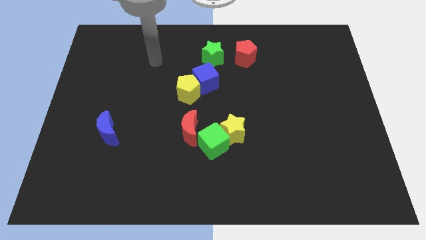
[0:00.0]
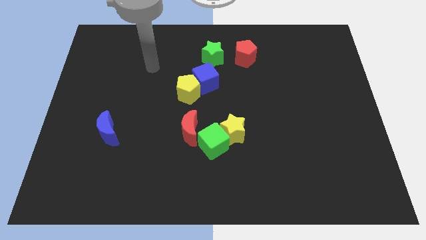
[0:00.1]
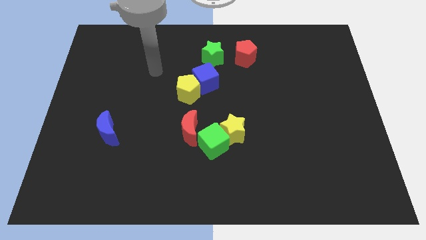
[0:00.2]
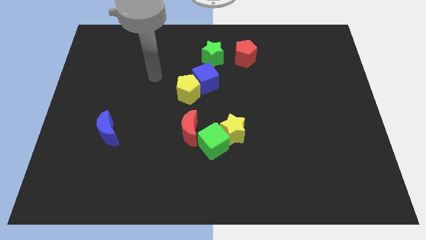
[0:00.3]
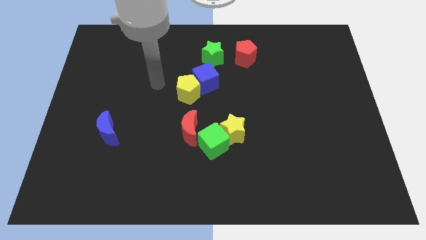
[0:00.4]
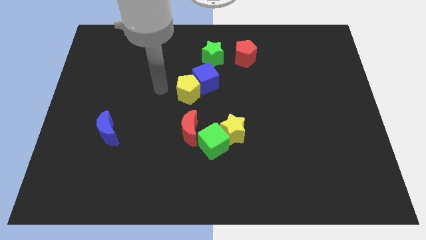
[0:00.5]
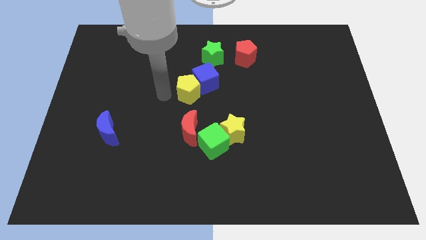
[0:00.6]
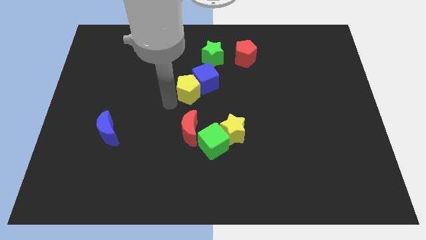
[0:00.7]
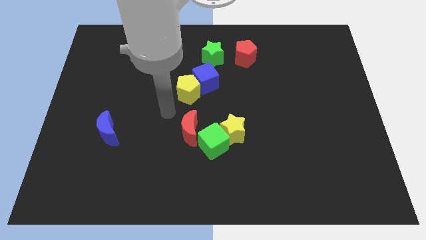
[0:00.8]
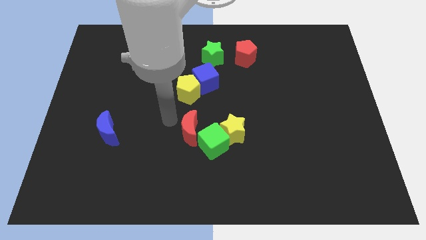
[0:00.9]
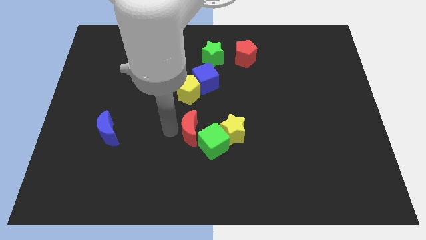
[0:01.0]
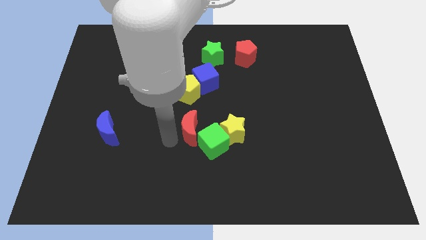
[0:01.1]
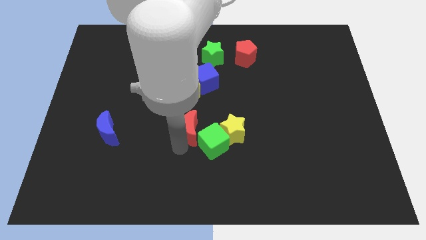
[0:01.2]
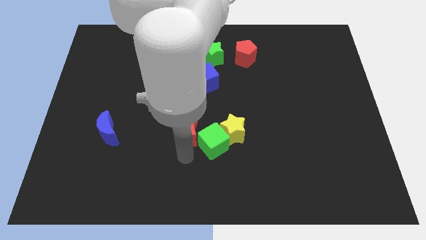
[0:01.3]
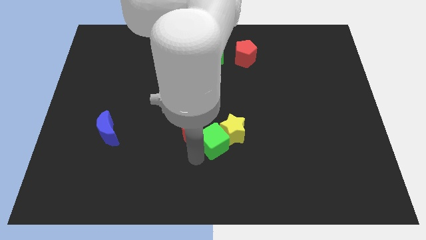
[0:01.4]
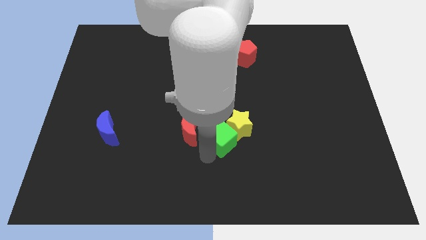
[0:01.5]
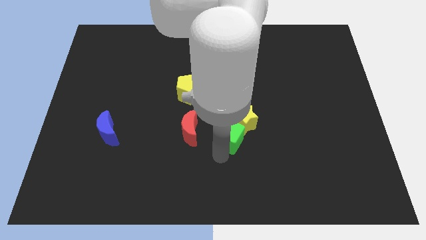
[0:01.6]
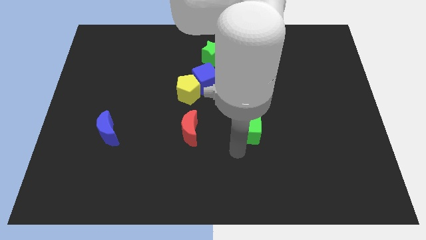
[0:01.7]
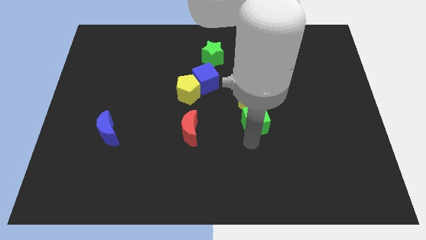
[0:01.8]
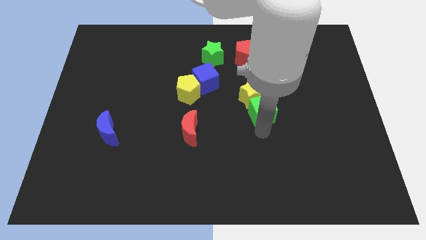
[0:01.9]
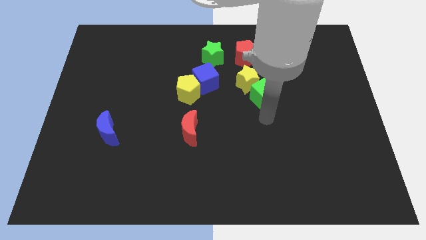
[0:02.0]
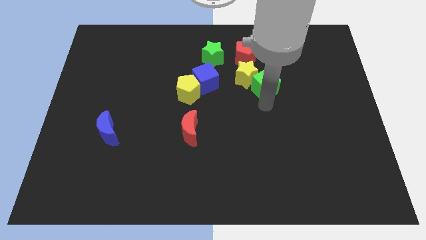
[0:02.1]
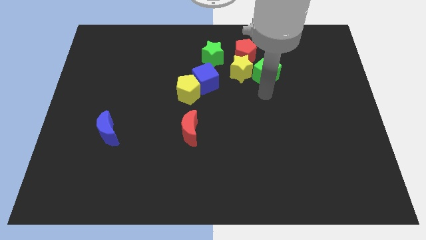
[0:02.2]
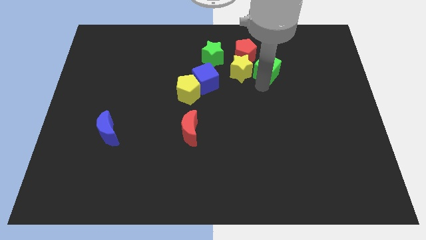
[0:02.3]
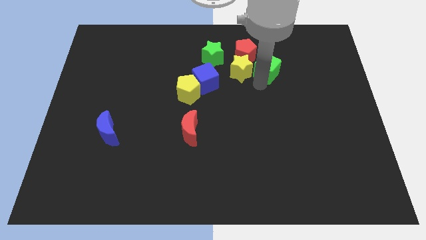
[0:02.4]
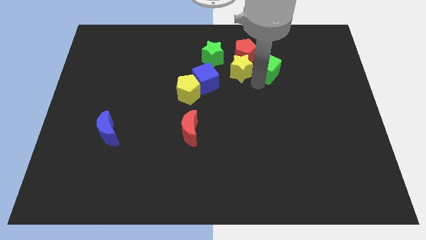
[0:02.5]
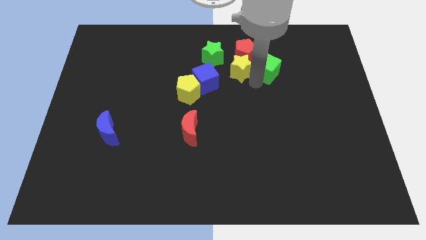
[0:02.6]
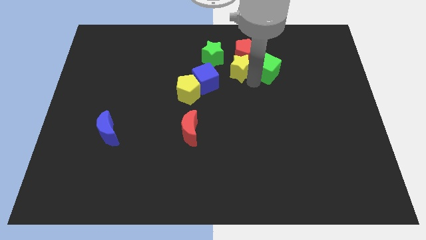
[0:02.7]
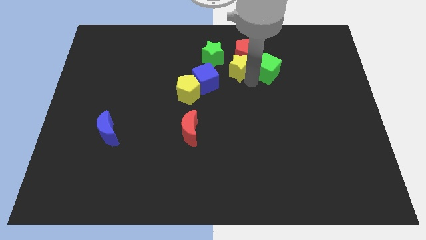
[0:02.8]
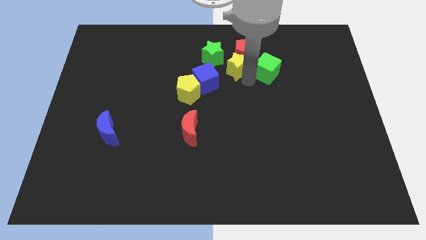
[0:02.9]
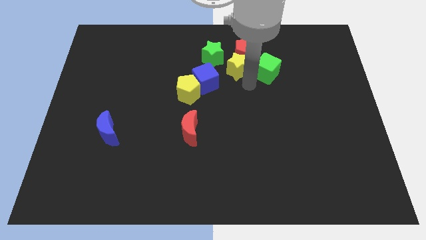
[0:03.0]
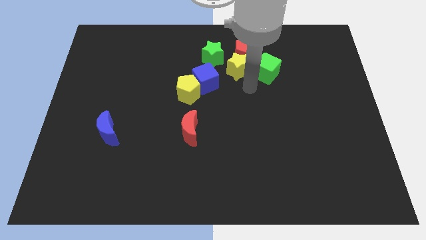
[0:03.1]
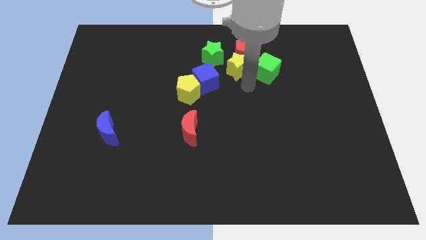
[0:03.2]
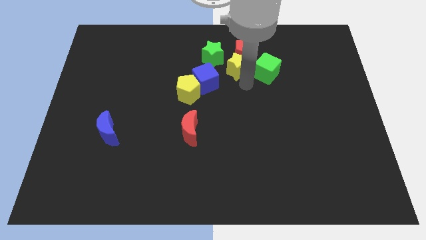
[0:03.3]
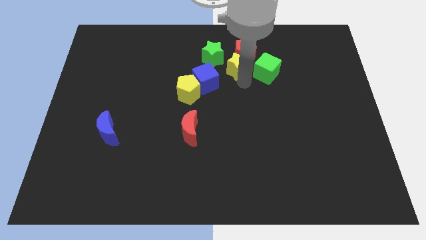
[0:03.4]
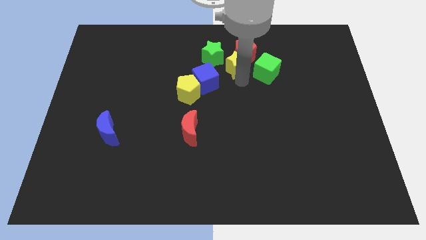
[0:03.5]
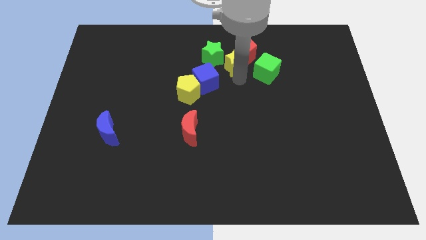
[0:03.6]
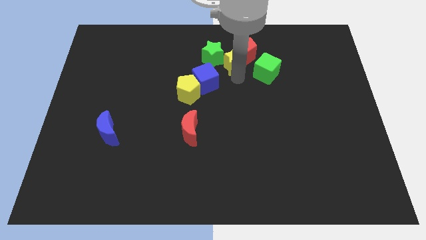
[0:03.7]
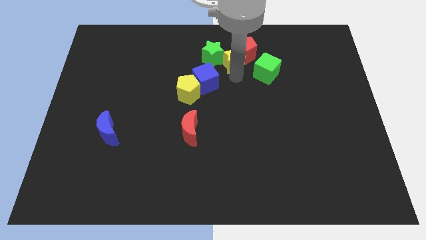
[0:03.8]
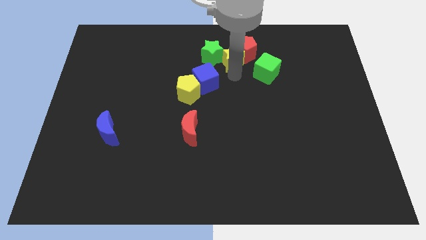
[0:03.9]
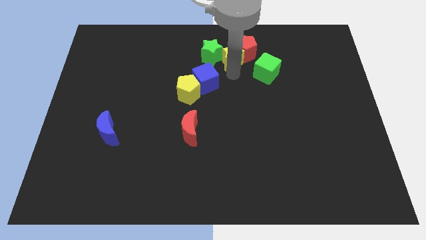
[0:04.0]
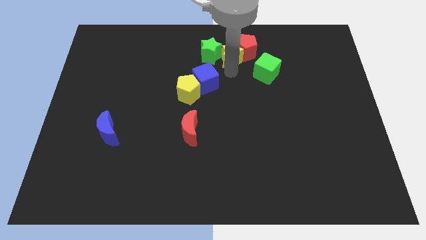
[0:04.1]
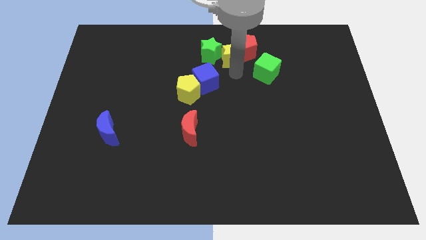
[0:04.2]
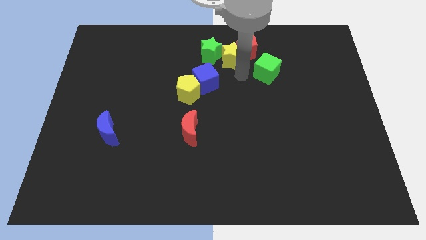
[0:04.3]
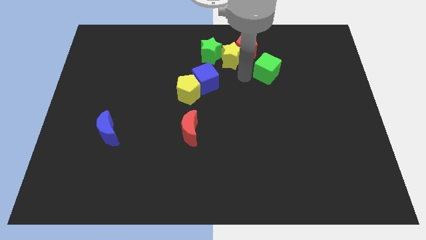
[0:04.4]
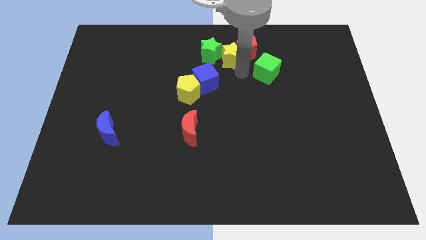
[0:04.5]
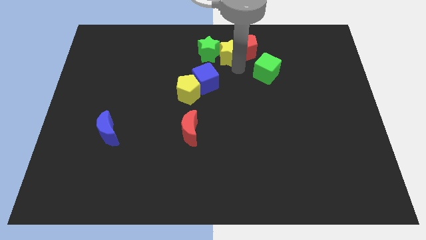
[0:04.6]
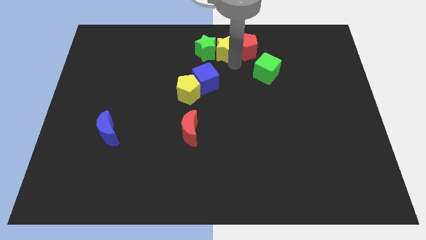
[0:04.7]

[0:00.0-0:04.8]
put the yellow star to the towards your base

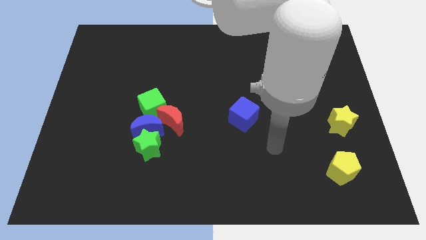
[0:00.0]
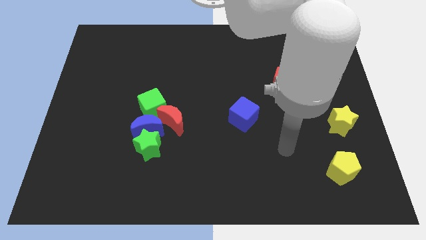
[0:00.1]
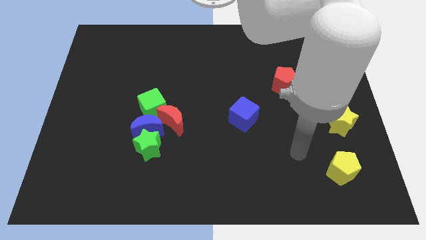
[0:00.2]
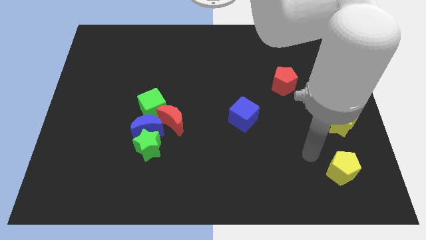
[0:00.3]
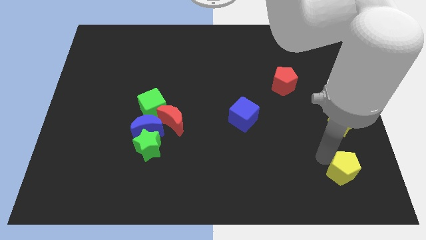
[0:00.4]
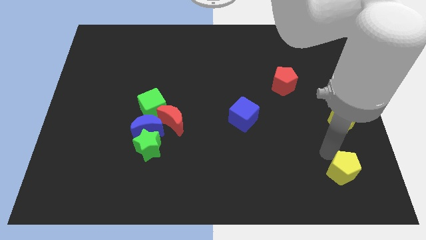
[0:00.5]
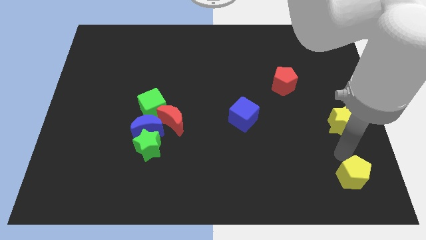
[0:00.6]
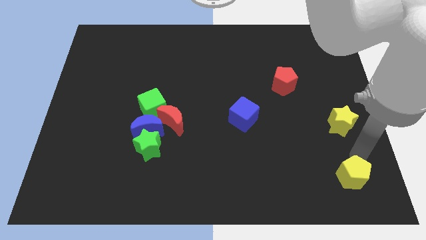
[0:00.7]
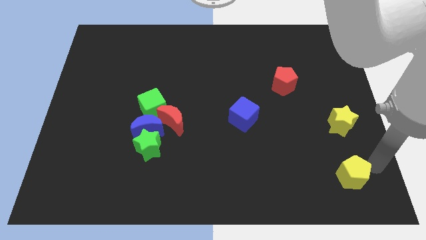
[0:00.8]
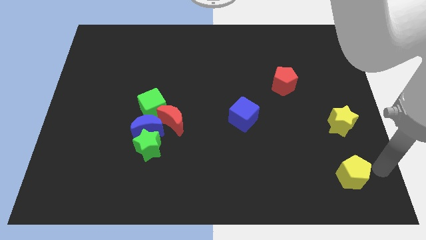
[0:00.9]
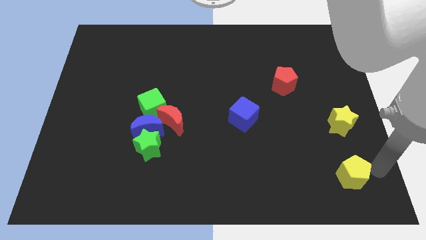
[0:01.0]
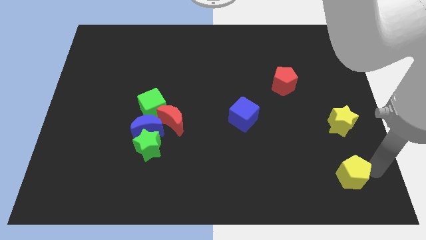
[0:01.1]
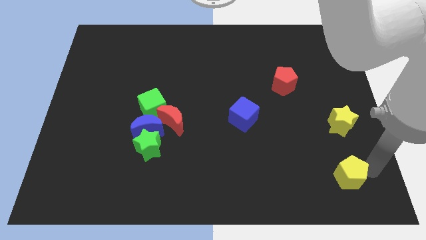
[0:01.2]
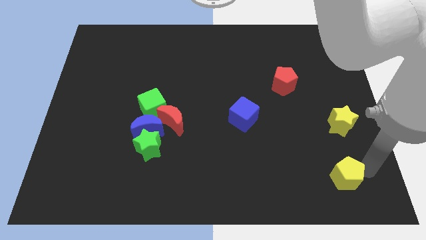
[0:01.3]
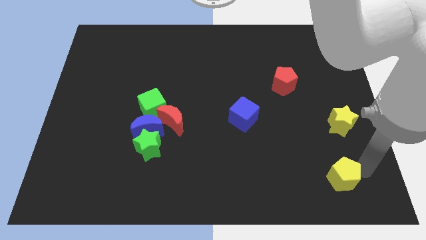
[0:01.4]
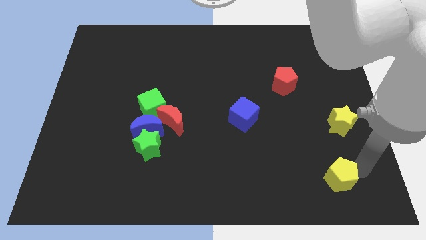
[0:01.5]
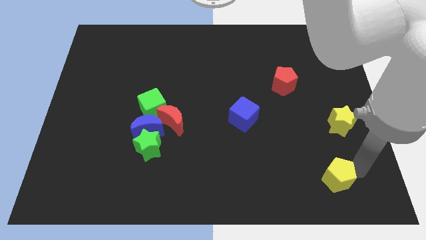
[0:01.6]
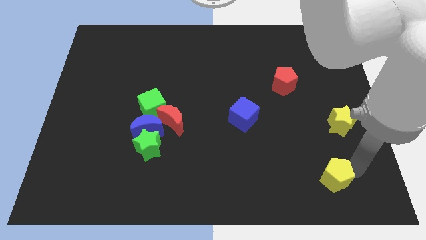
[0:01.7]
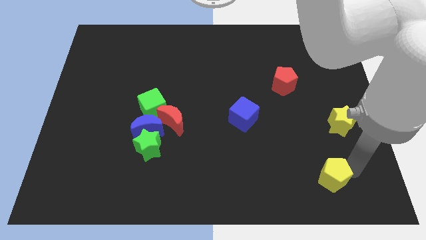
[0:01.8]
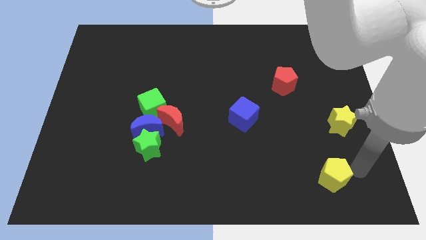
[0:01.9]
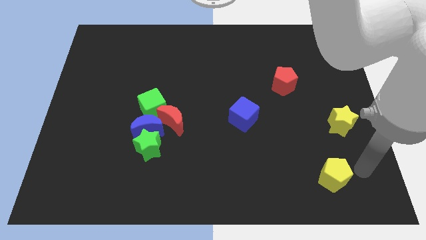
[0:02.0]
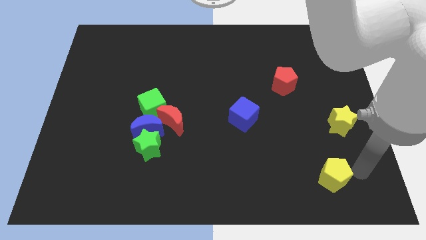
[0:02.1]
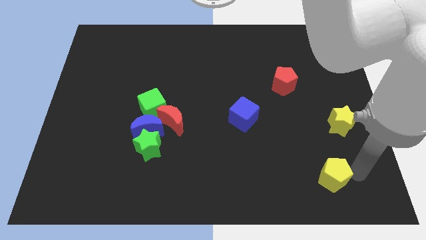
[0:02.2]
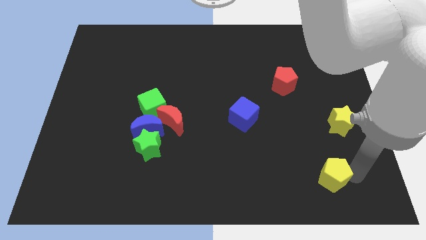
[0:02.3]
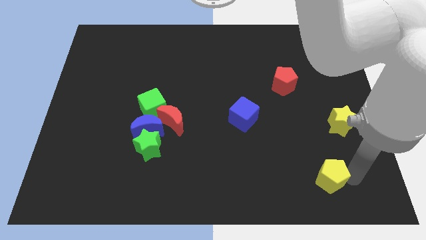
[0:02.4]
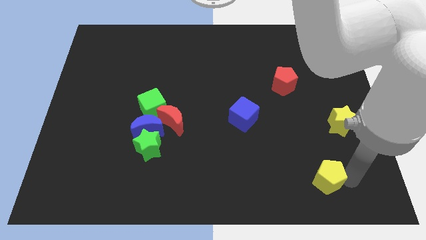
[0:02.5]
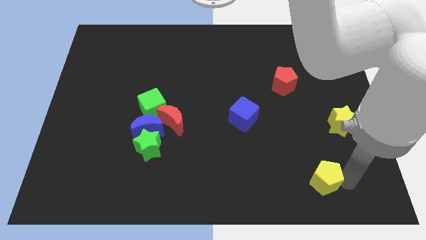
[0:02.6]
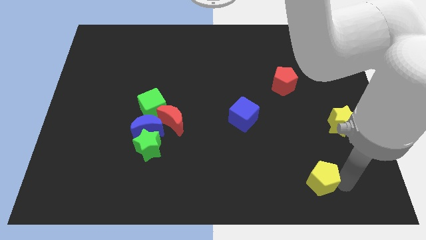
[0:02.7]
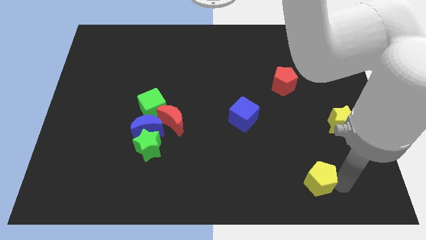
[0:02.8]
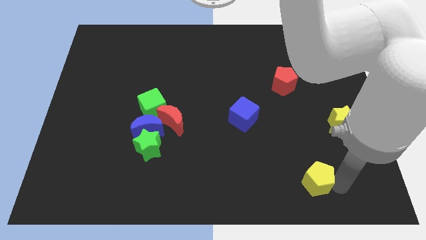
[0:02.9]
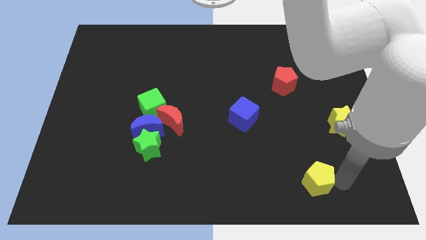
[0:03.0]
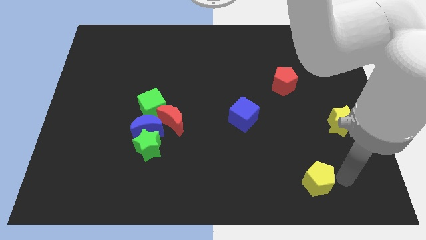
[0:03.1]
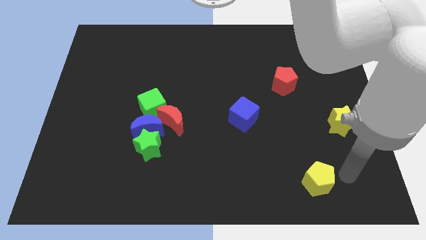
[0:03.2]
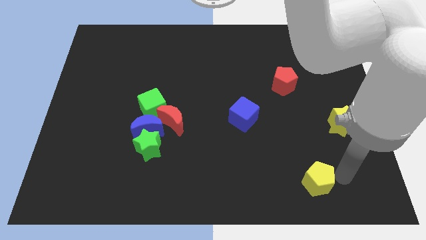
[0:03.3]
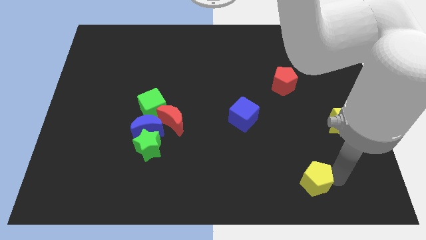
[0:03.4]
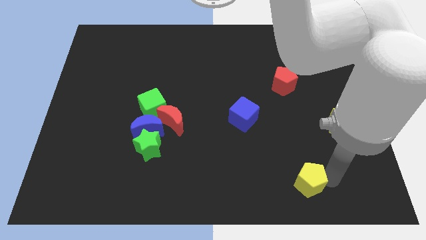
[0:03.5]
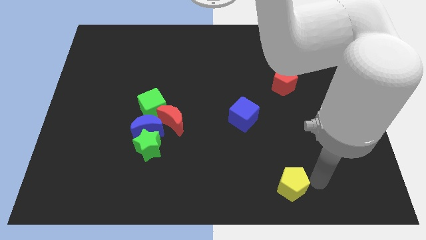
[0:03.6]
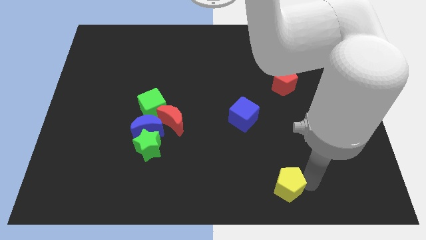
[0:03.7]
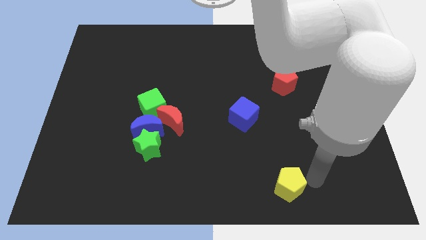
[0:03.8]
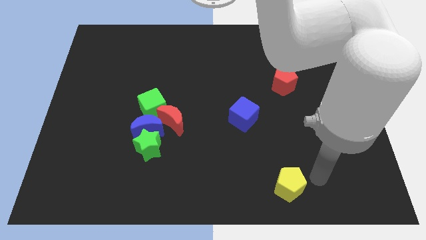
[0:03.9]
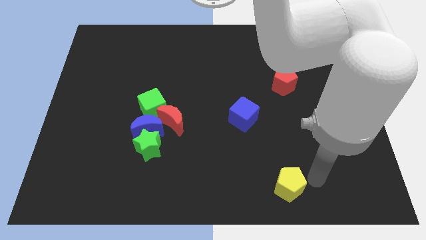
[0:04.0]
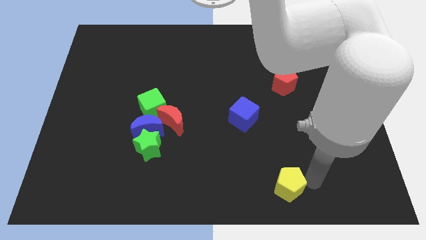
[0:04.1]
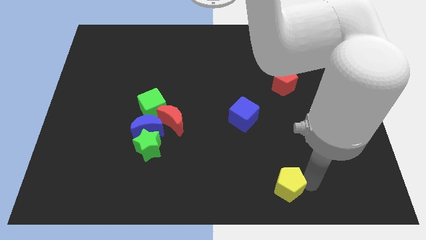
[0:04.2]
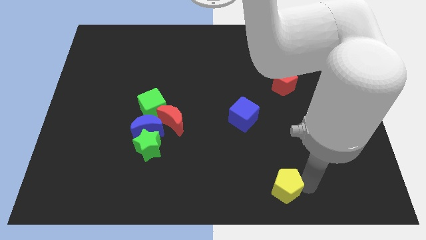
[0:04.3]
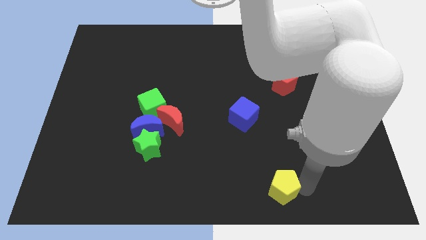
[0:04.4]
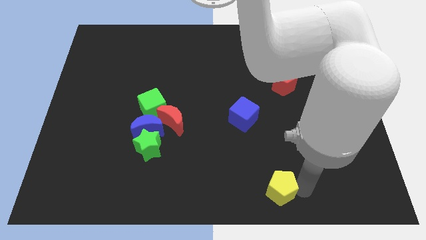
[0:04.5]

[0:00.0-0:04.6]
put the yellow pentagon to the bottom
